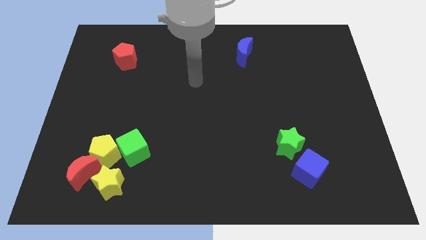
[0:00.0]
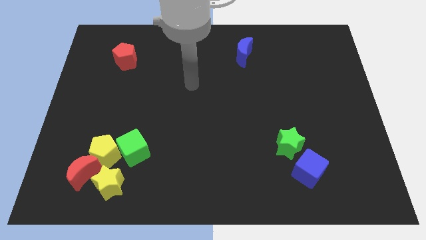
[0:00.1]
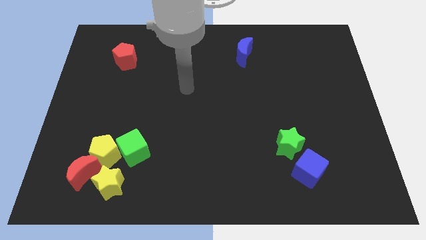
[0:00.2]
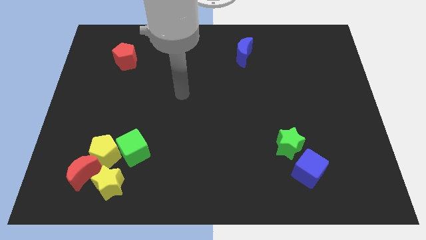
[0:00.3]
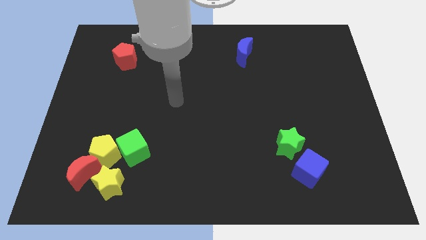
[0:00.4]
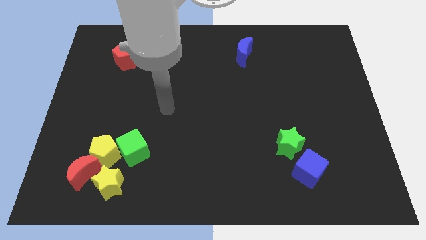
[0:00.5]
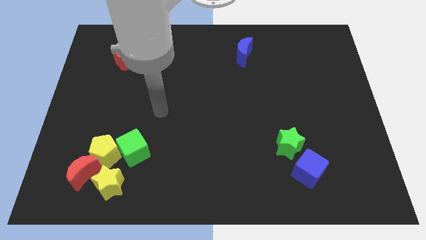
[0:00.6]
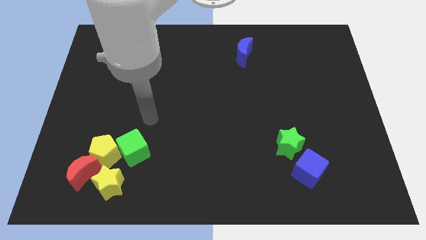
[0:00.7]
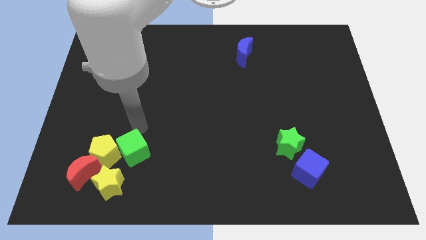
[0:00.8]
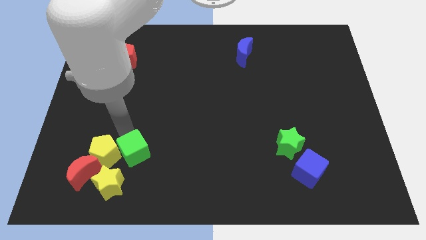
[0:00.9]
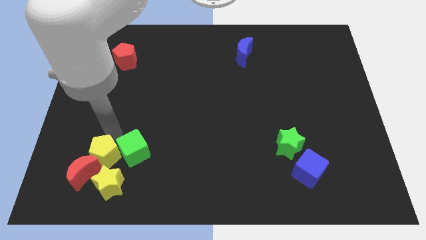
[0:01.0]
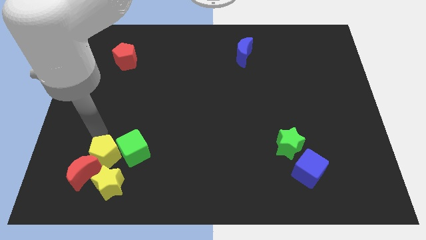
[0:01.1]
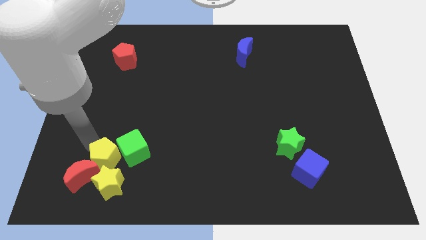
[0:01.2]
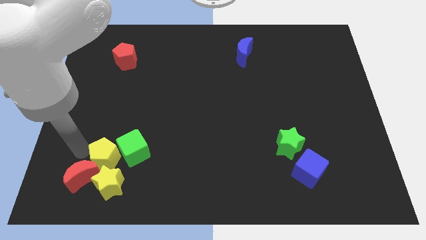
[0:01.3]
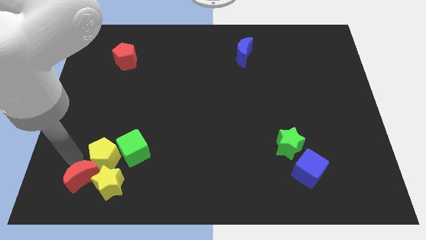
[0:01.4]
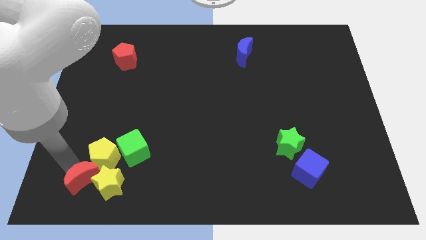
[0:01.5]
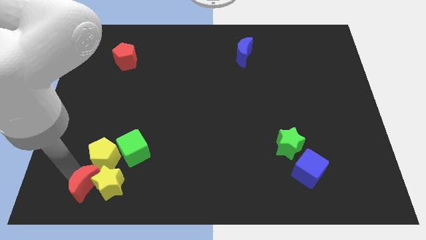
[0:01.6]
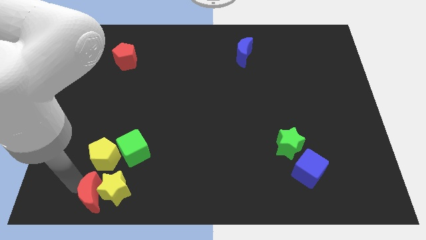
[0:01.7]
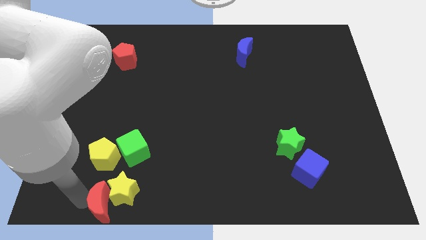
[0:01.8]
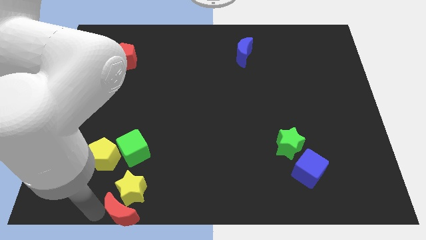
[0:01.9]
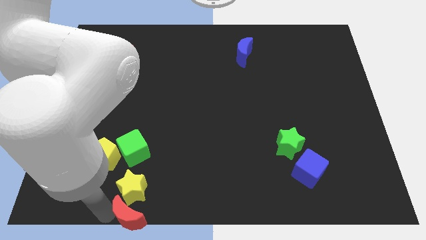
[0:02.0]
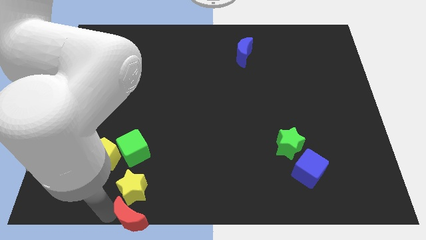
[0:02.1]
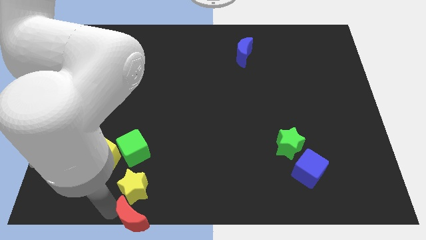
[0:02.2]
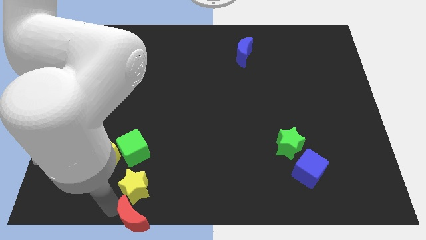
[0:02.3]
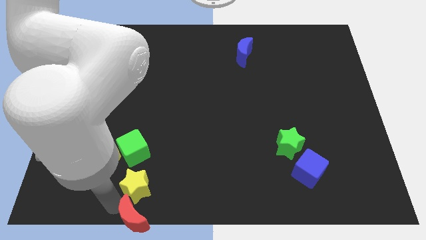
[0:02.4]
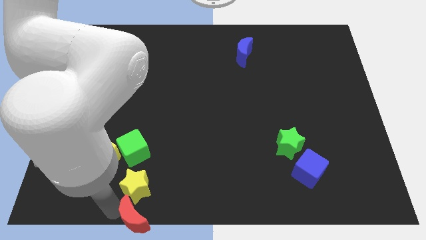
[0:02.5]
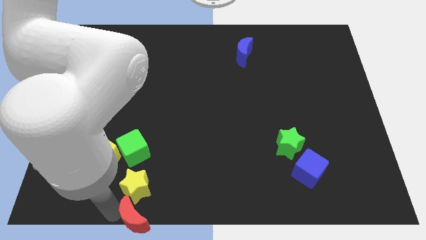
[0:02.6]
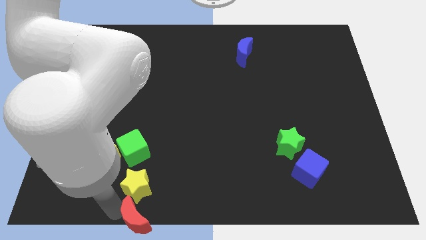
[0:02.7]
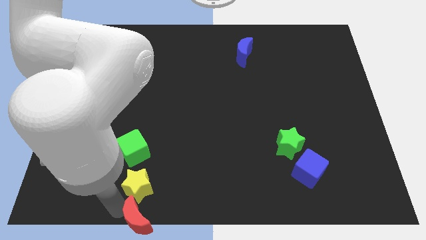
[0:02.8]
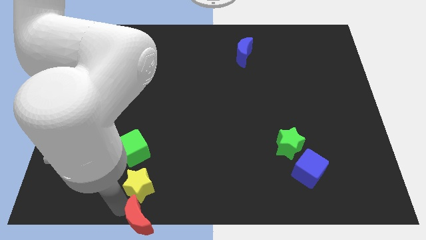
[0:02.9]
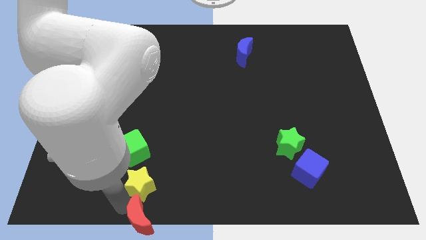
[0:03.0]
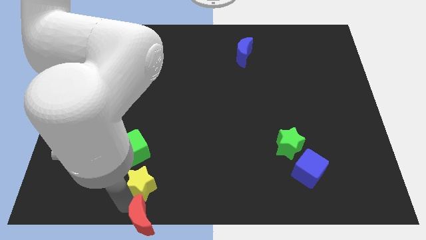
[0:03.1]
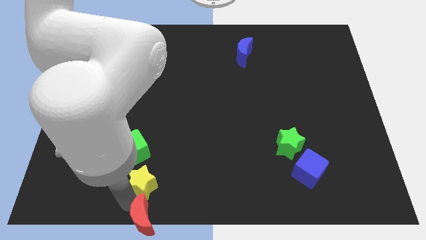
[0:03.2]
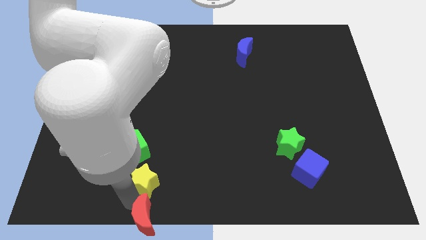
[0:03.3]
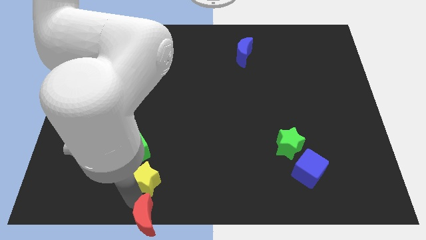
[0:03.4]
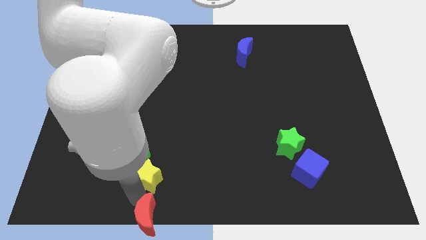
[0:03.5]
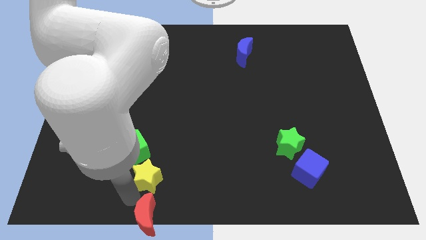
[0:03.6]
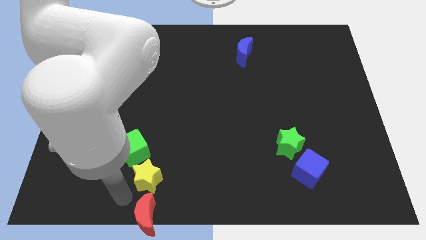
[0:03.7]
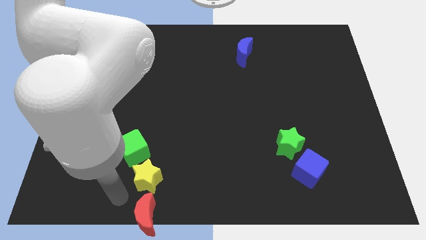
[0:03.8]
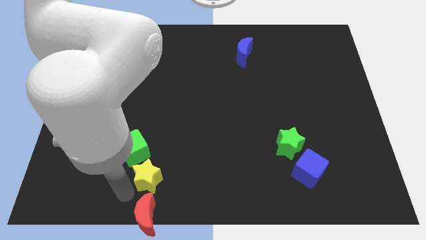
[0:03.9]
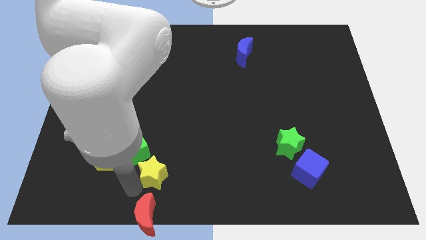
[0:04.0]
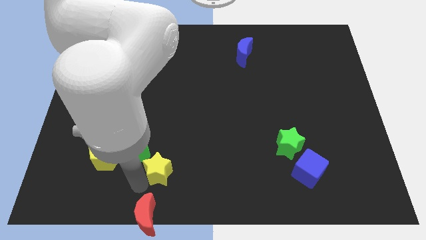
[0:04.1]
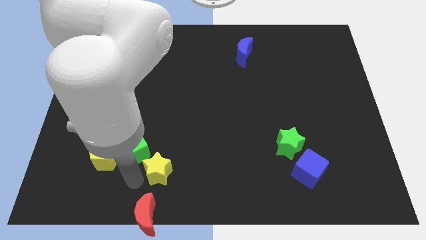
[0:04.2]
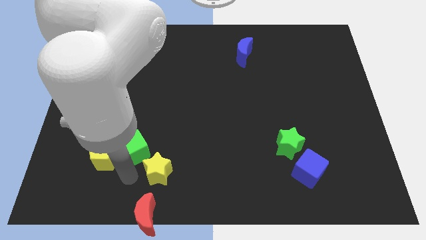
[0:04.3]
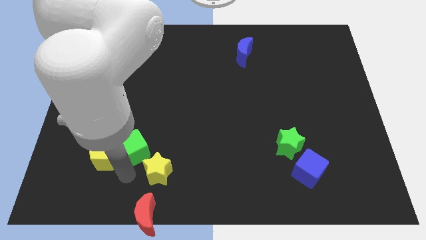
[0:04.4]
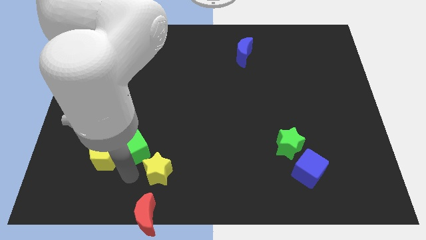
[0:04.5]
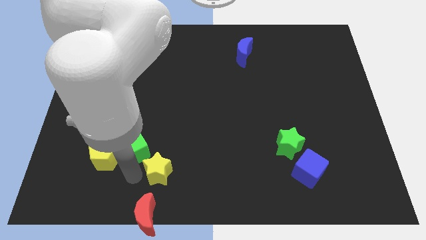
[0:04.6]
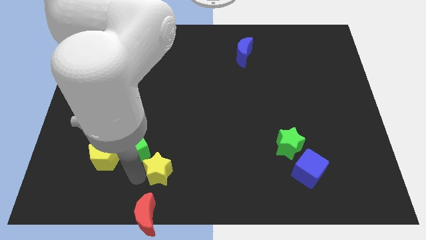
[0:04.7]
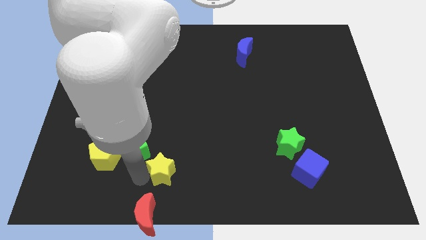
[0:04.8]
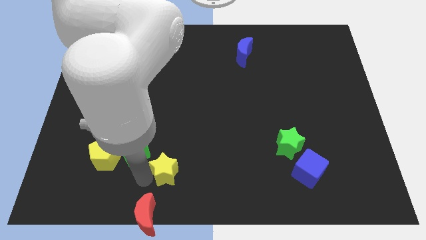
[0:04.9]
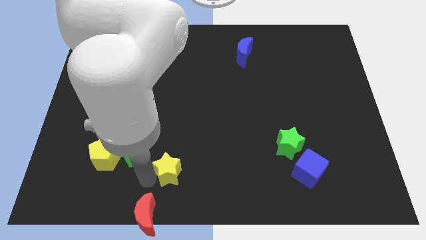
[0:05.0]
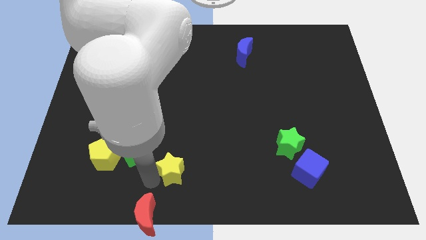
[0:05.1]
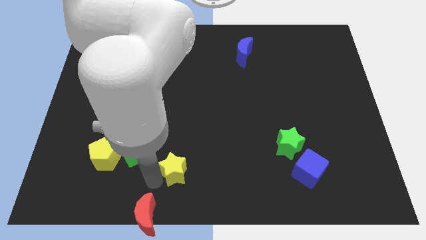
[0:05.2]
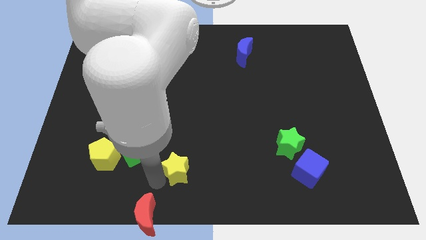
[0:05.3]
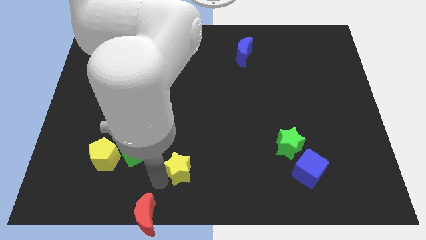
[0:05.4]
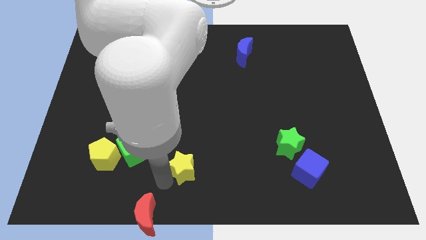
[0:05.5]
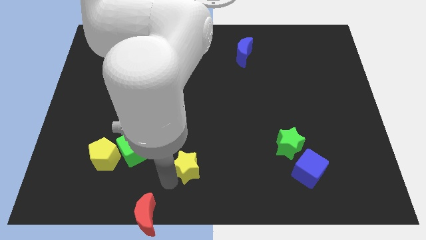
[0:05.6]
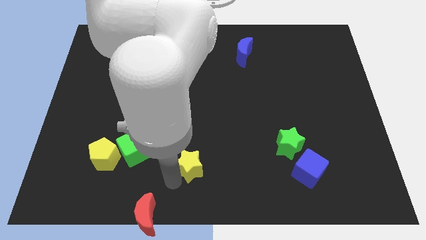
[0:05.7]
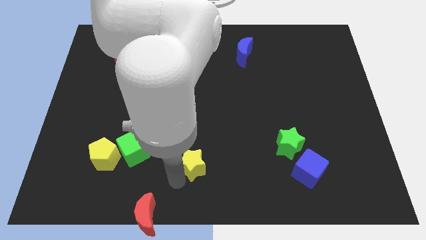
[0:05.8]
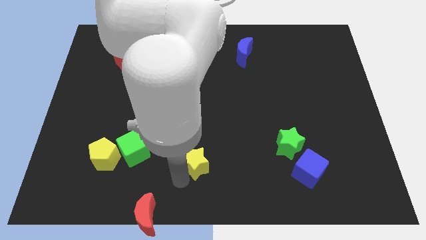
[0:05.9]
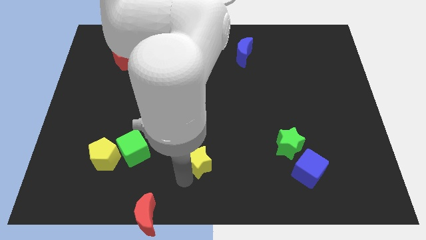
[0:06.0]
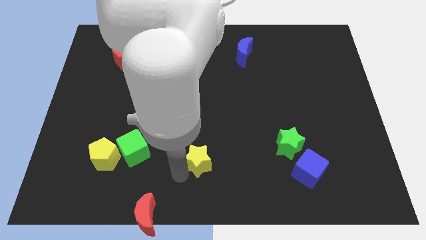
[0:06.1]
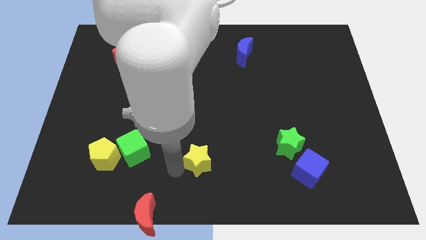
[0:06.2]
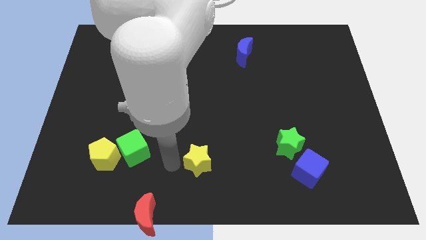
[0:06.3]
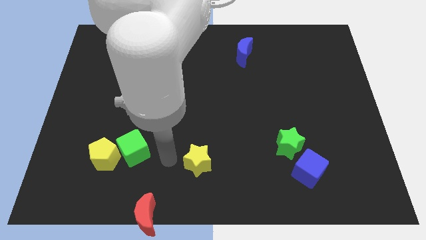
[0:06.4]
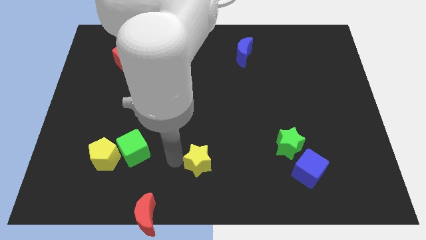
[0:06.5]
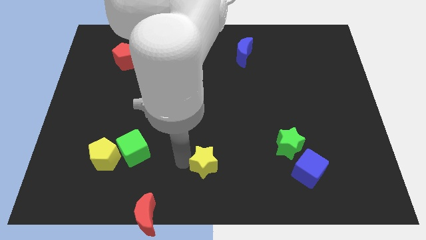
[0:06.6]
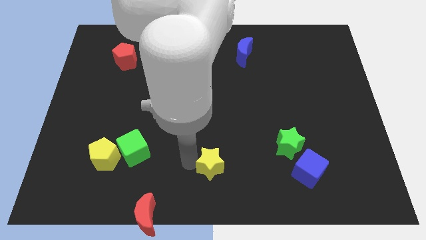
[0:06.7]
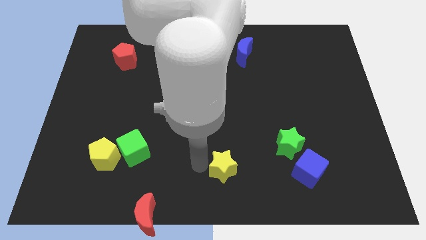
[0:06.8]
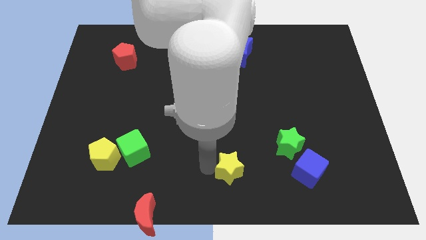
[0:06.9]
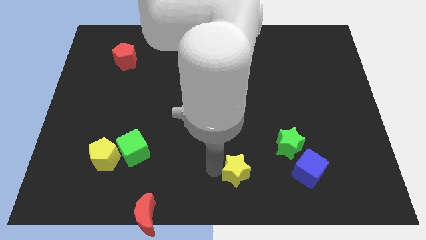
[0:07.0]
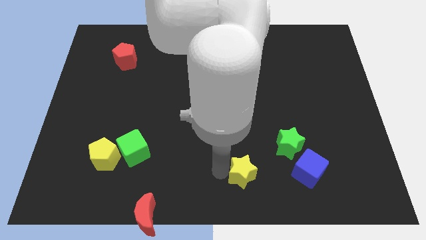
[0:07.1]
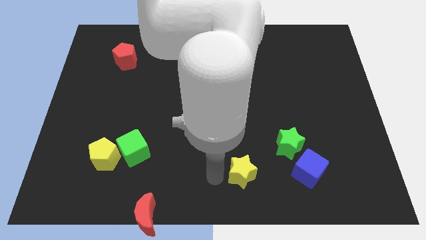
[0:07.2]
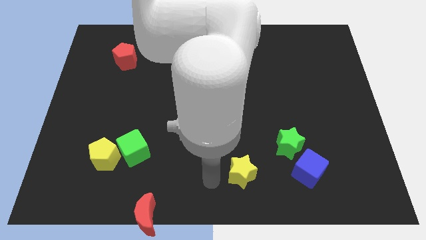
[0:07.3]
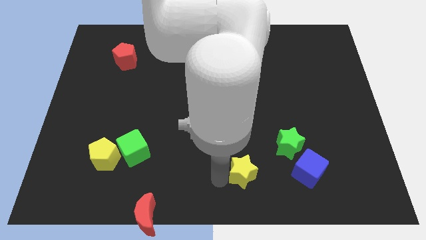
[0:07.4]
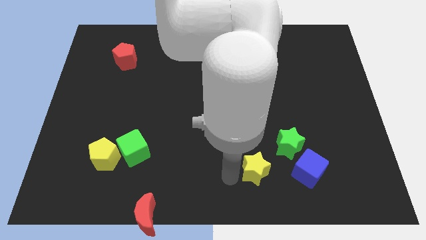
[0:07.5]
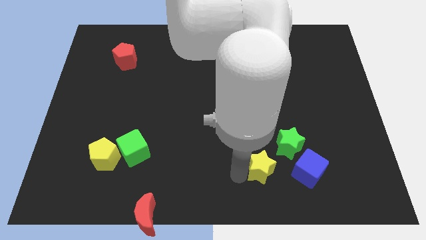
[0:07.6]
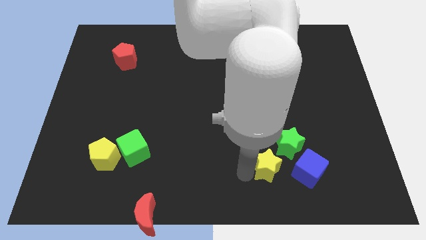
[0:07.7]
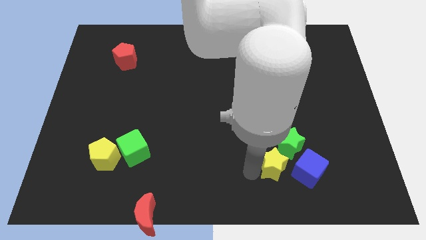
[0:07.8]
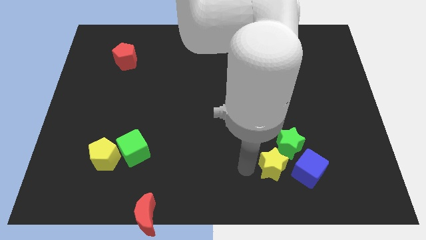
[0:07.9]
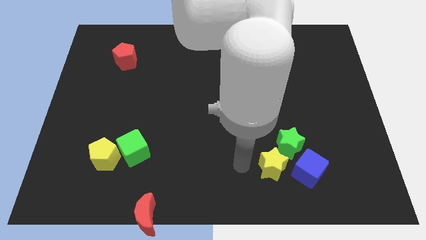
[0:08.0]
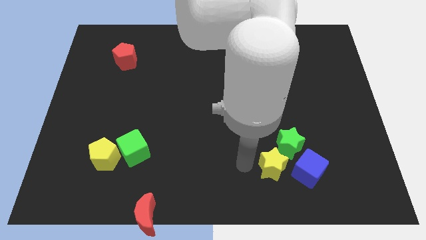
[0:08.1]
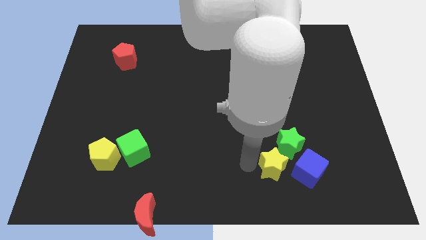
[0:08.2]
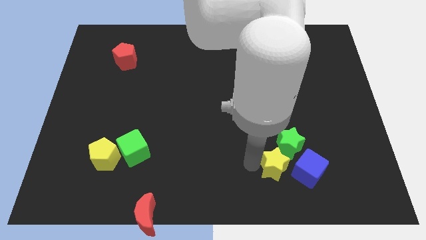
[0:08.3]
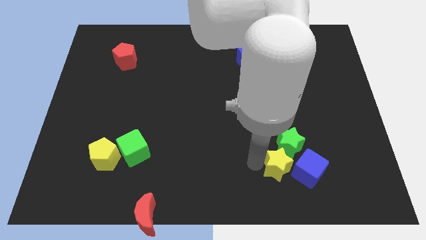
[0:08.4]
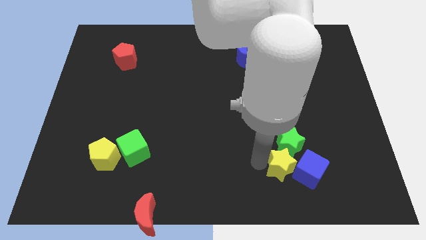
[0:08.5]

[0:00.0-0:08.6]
push the yellow star towards the blue cube
